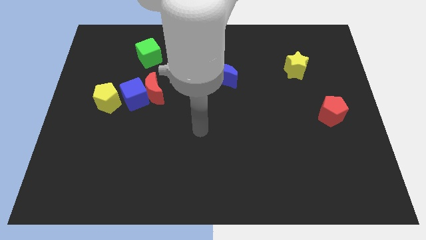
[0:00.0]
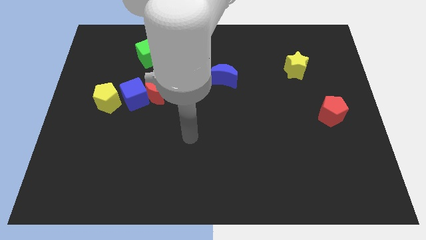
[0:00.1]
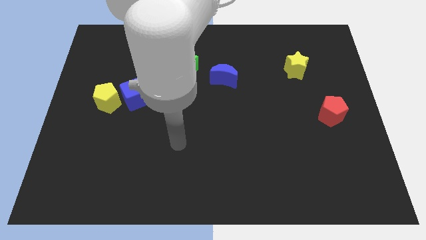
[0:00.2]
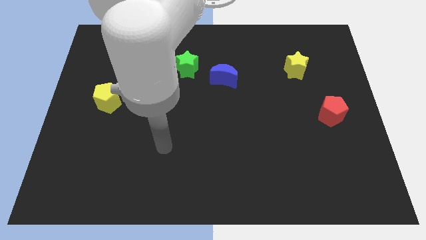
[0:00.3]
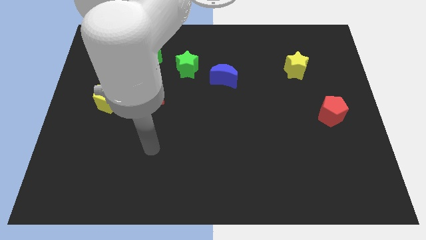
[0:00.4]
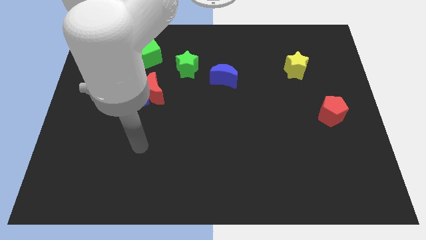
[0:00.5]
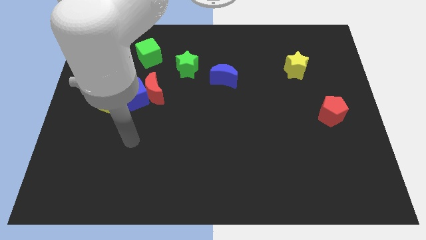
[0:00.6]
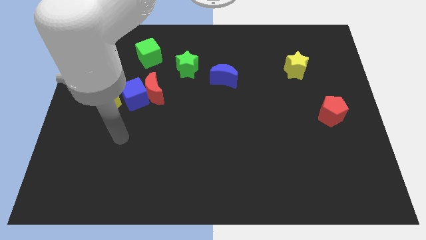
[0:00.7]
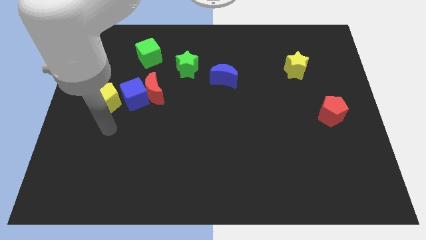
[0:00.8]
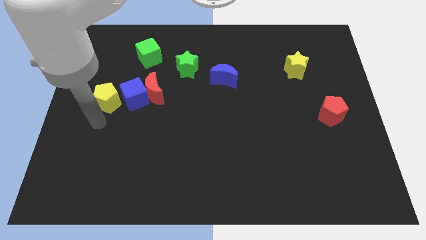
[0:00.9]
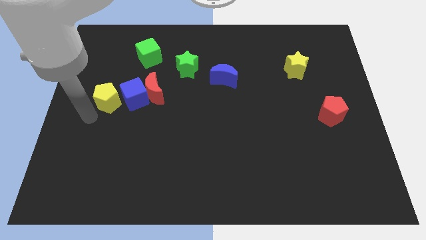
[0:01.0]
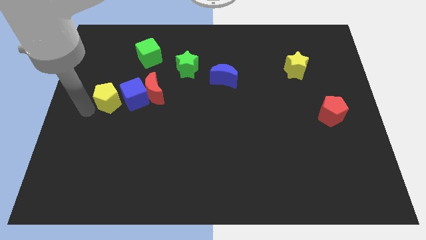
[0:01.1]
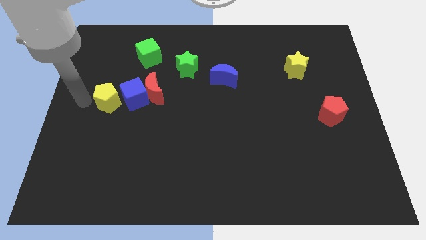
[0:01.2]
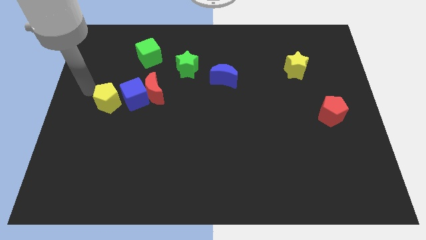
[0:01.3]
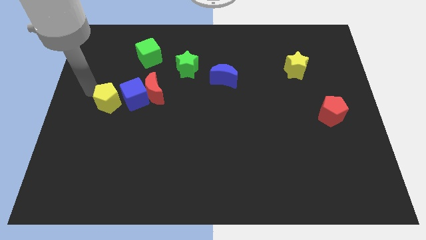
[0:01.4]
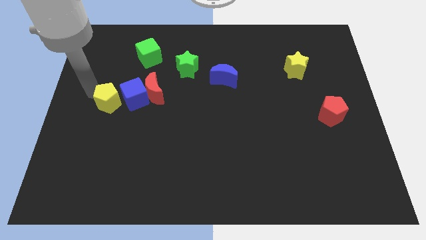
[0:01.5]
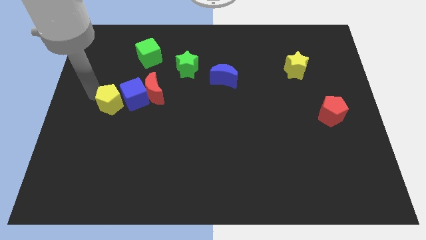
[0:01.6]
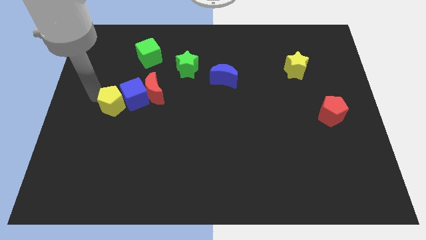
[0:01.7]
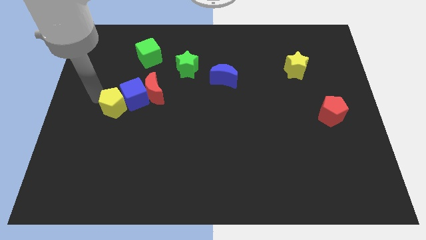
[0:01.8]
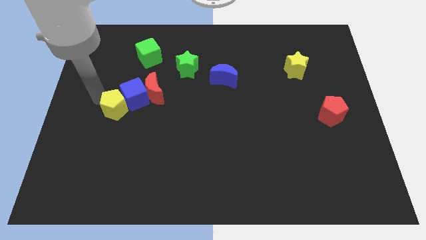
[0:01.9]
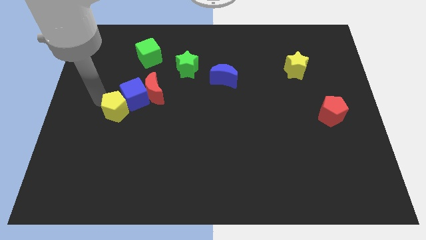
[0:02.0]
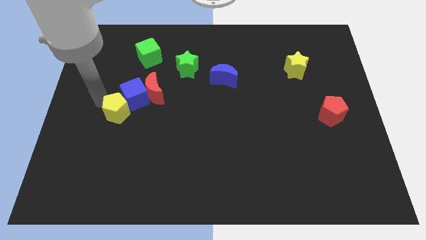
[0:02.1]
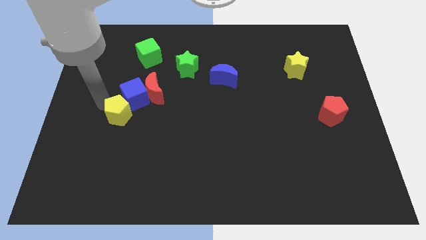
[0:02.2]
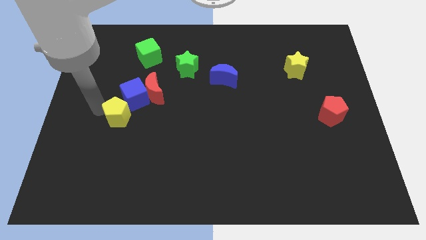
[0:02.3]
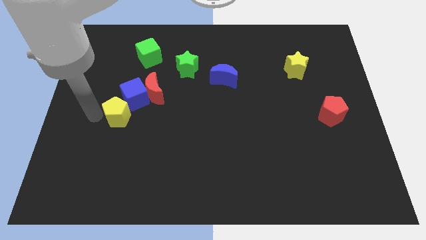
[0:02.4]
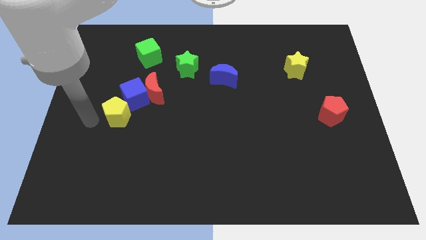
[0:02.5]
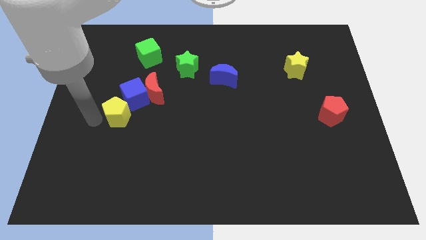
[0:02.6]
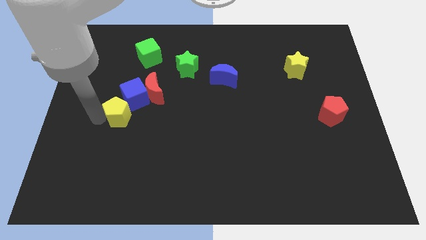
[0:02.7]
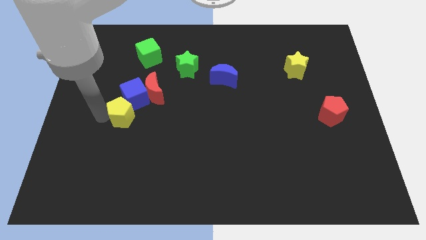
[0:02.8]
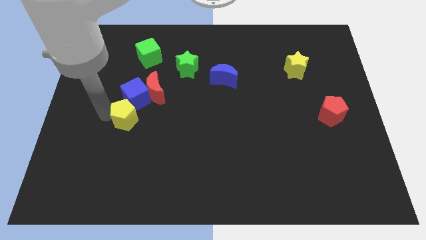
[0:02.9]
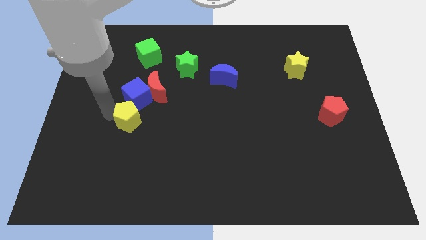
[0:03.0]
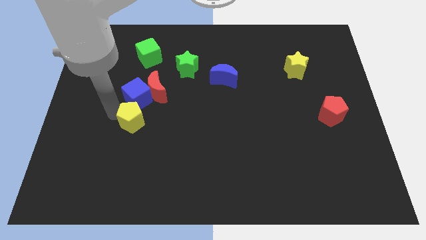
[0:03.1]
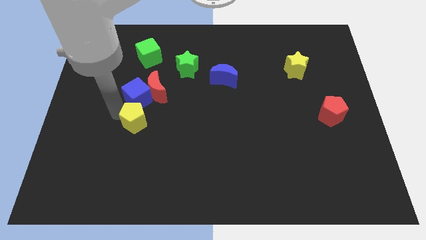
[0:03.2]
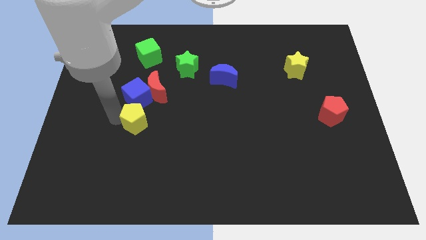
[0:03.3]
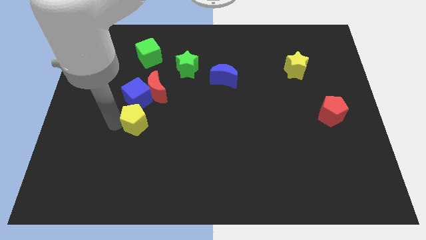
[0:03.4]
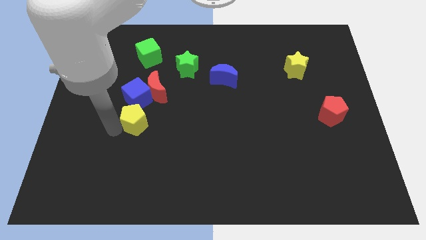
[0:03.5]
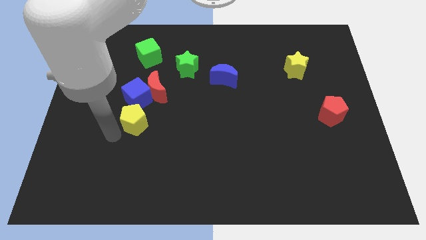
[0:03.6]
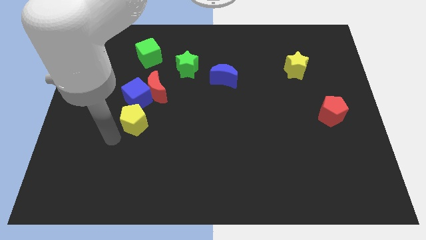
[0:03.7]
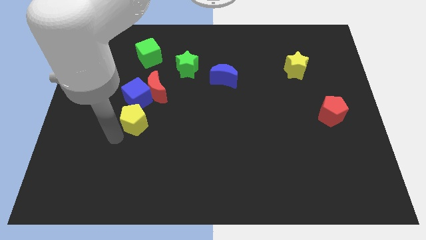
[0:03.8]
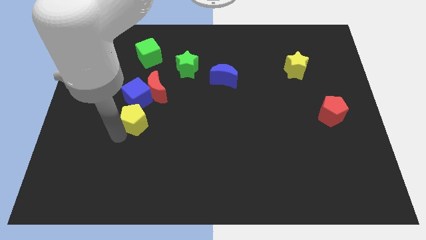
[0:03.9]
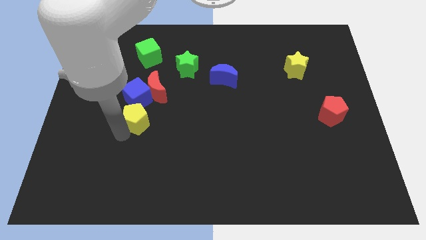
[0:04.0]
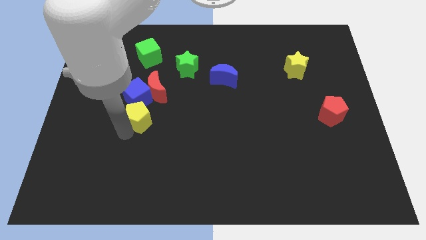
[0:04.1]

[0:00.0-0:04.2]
push the yellow pentagon a little right

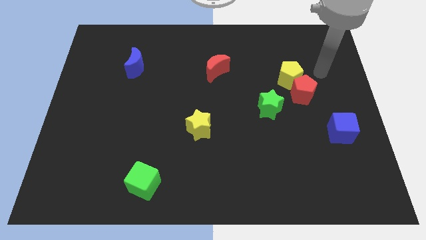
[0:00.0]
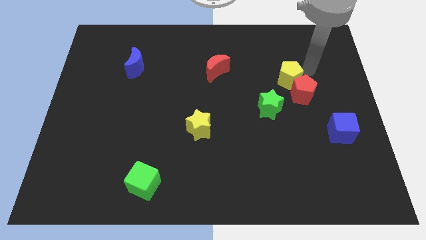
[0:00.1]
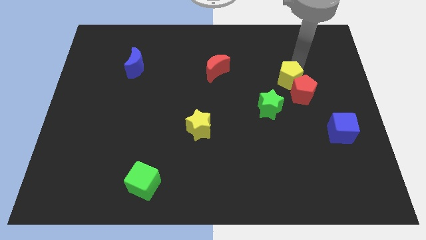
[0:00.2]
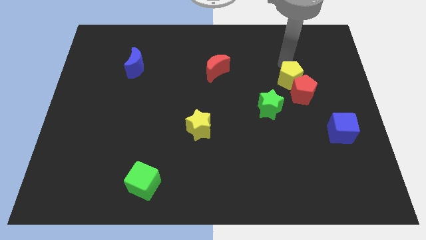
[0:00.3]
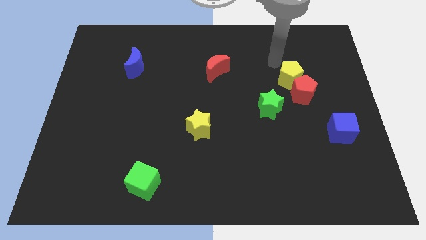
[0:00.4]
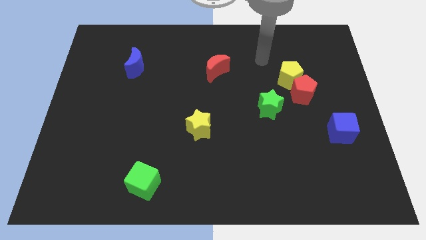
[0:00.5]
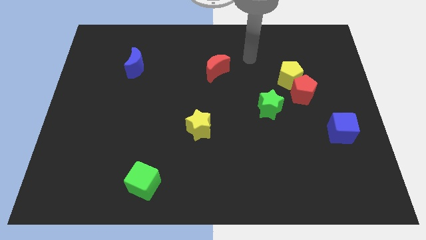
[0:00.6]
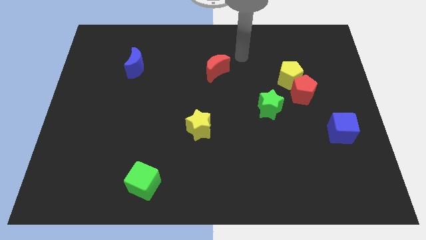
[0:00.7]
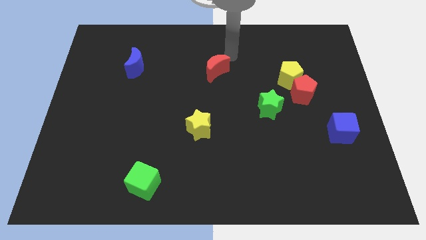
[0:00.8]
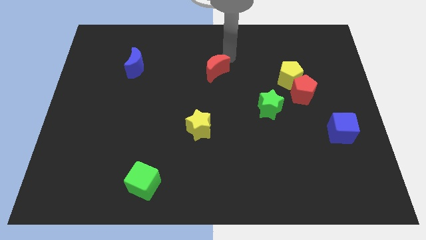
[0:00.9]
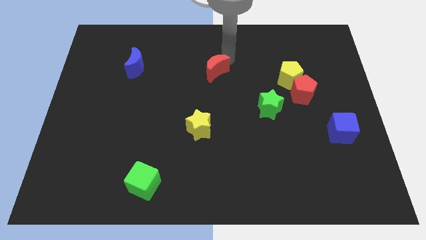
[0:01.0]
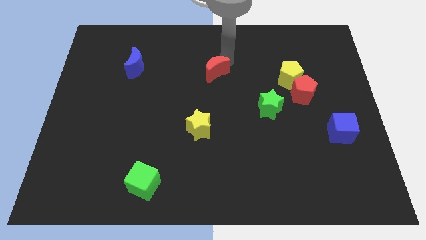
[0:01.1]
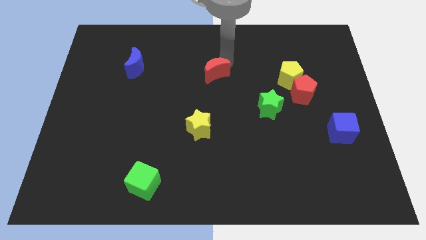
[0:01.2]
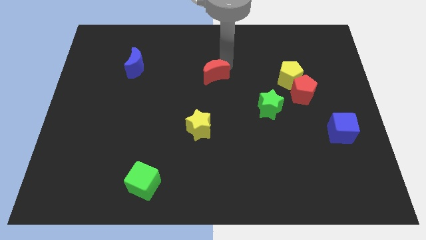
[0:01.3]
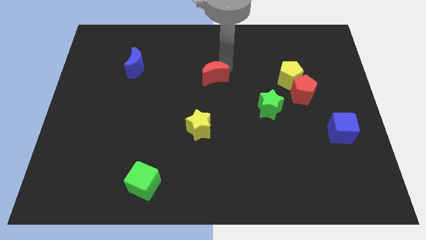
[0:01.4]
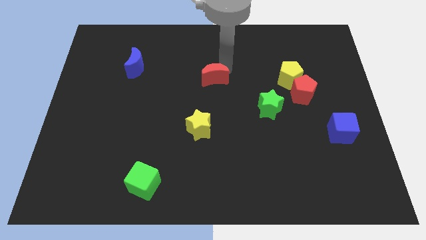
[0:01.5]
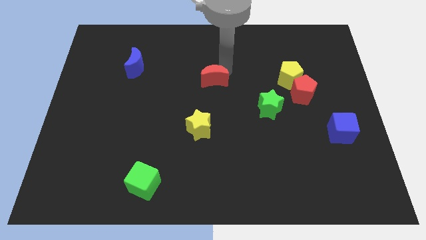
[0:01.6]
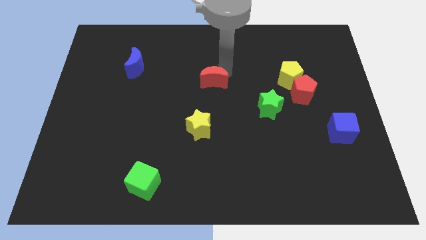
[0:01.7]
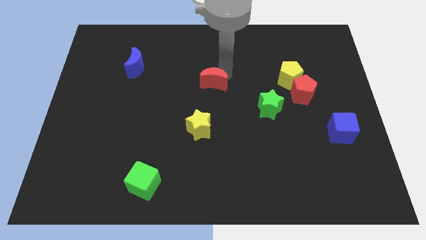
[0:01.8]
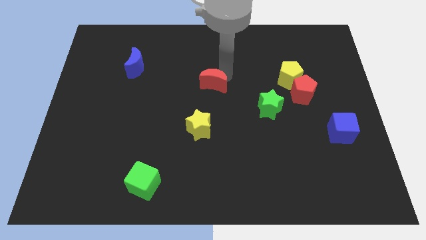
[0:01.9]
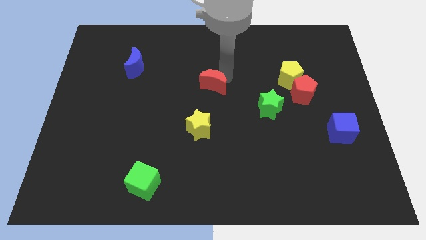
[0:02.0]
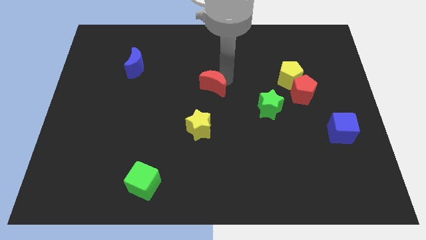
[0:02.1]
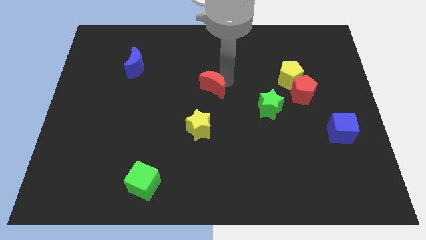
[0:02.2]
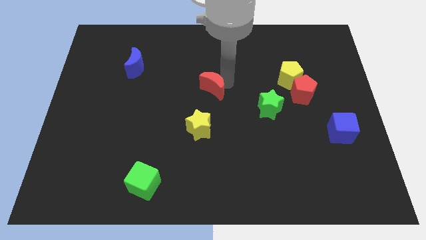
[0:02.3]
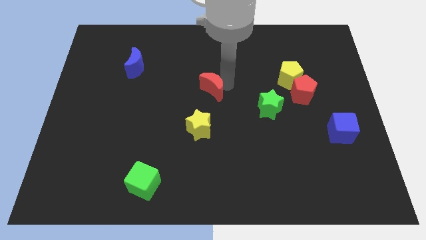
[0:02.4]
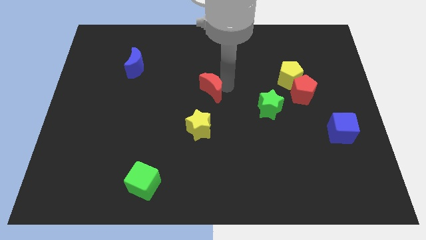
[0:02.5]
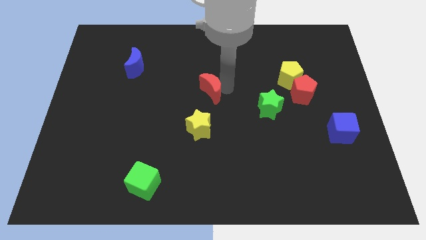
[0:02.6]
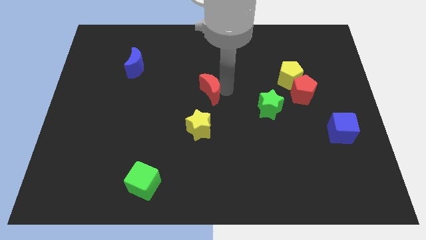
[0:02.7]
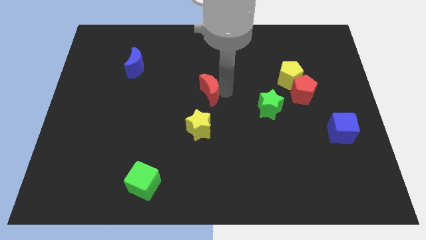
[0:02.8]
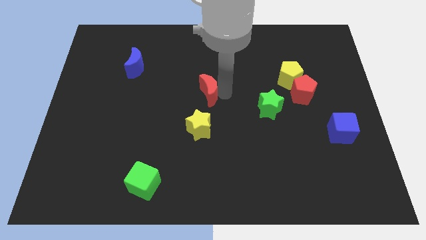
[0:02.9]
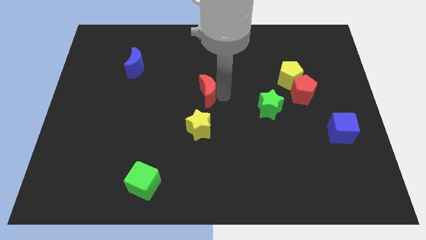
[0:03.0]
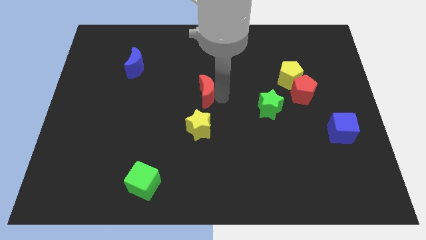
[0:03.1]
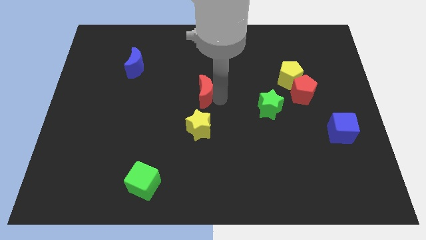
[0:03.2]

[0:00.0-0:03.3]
move the red moon downwards and then left a bit

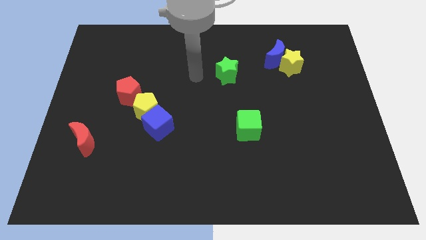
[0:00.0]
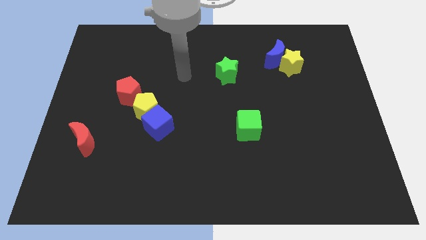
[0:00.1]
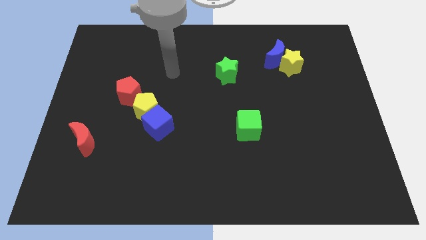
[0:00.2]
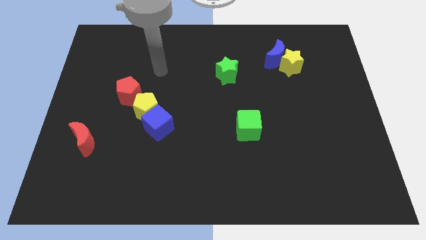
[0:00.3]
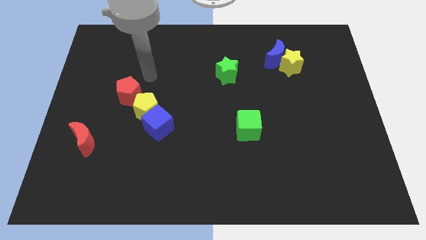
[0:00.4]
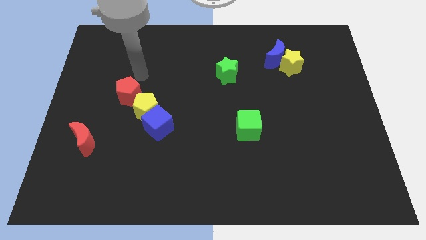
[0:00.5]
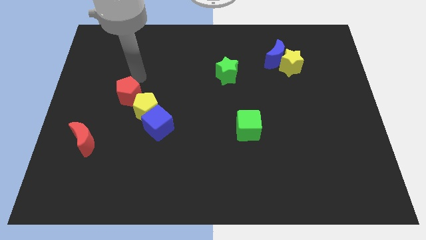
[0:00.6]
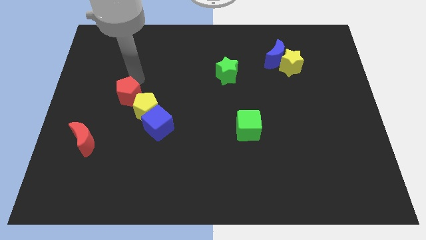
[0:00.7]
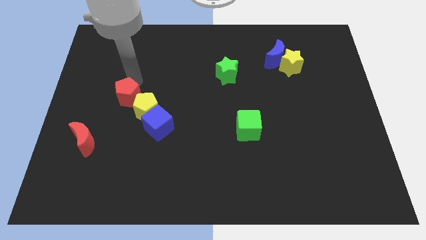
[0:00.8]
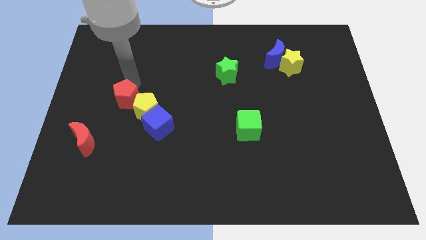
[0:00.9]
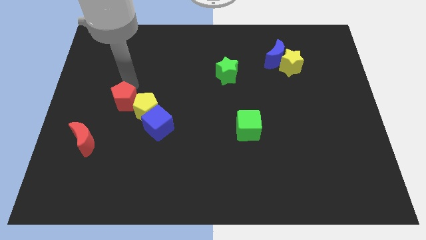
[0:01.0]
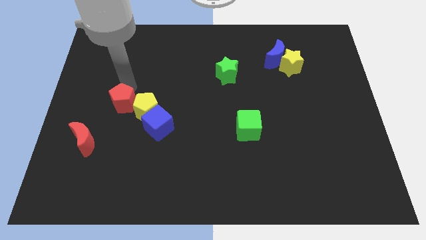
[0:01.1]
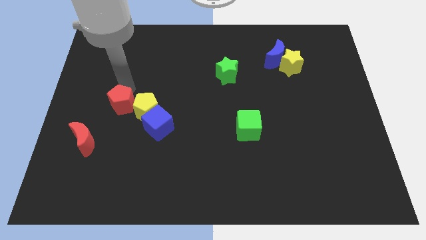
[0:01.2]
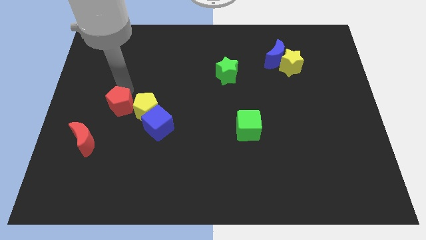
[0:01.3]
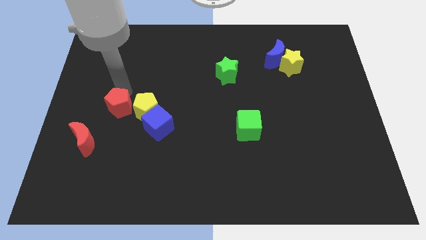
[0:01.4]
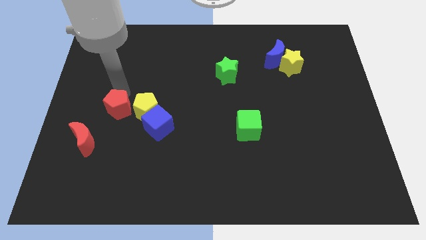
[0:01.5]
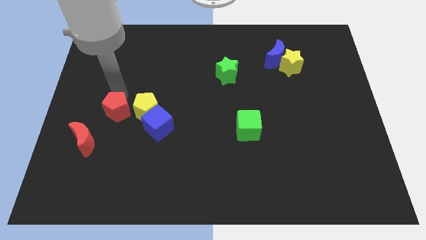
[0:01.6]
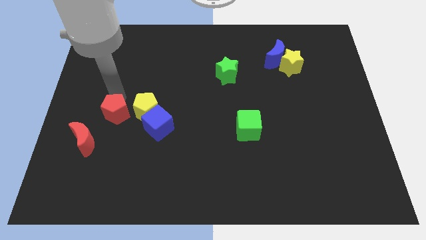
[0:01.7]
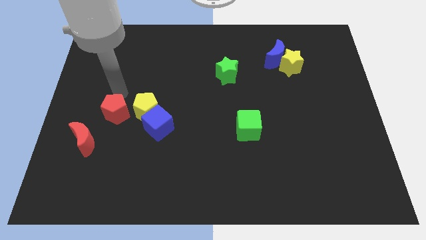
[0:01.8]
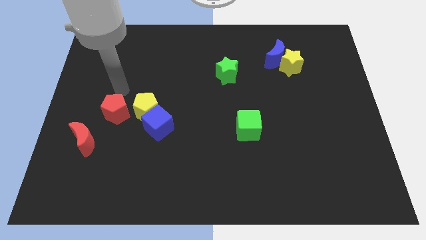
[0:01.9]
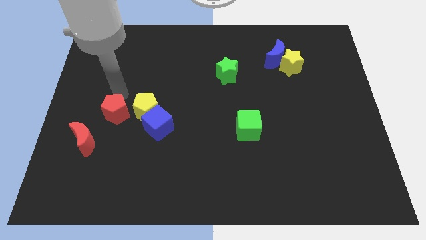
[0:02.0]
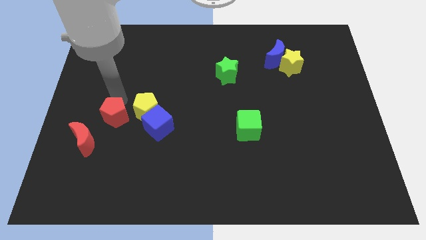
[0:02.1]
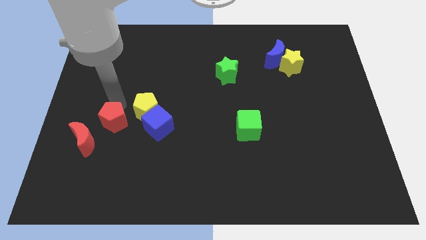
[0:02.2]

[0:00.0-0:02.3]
move the red pentagon down a little bit
